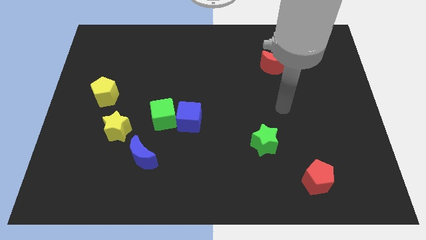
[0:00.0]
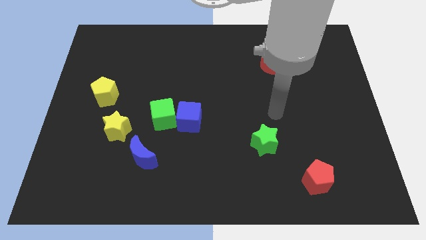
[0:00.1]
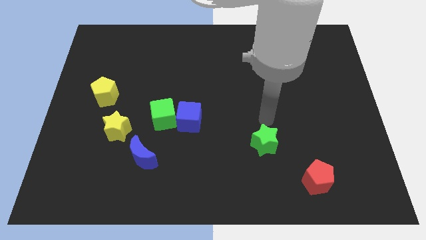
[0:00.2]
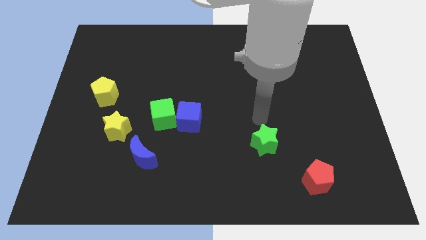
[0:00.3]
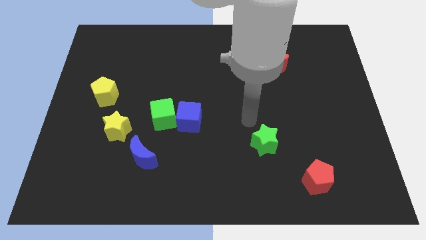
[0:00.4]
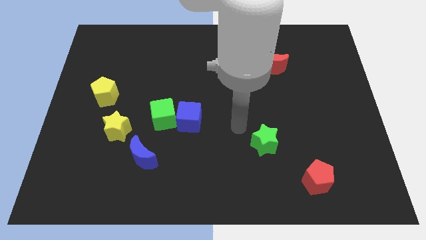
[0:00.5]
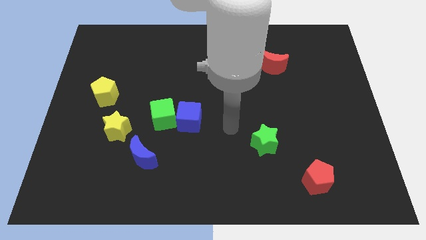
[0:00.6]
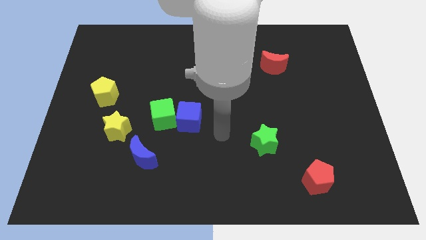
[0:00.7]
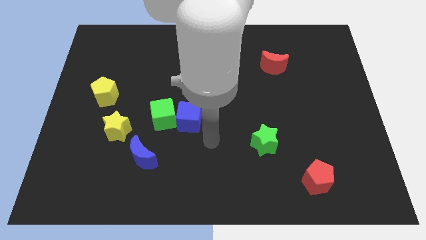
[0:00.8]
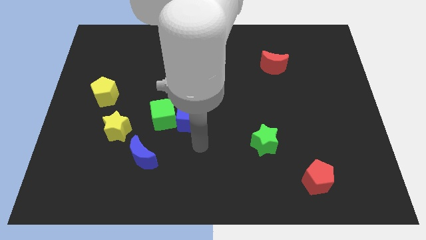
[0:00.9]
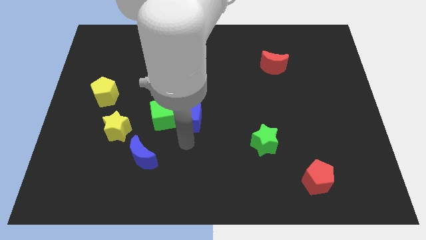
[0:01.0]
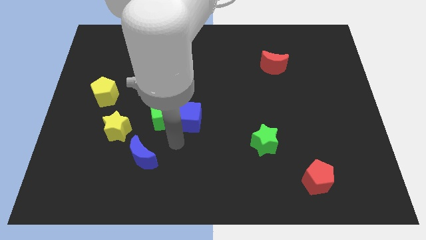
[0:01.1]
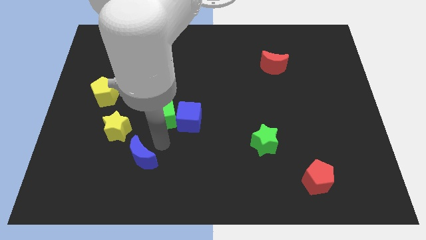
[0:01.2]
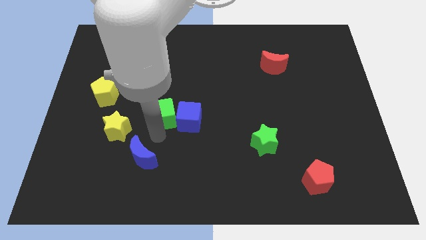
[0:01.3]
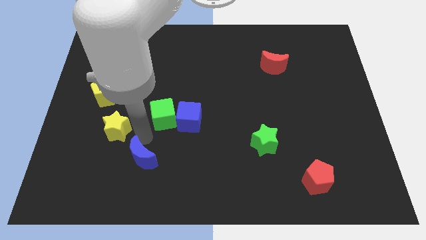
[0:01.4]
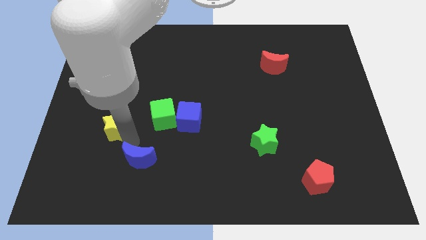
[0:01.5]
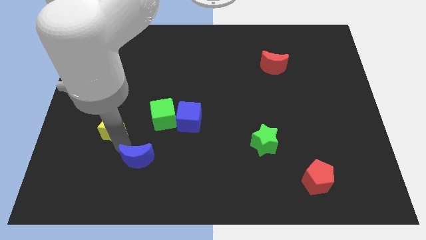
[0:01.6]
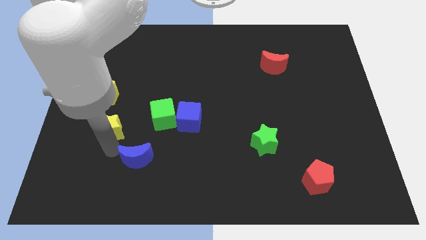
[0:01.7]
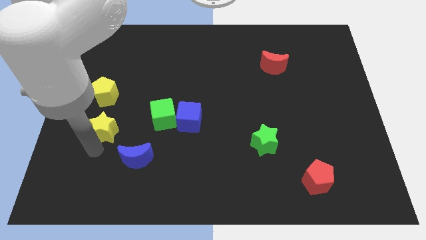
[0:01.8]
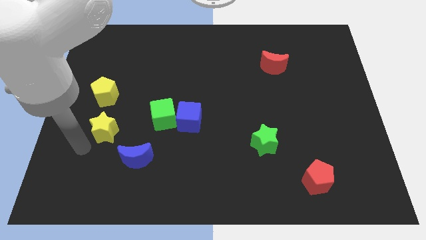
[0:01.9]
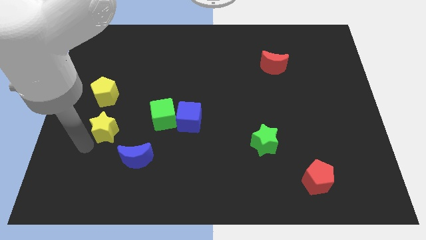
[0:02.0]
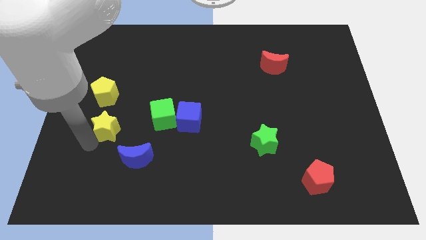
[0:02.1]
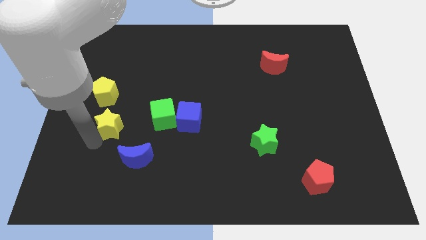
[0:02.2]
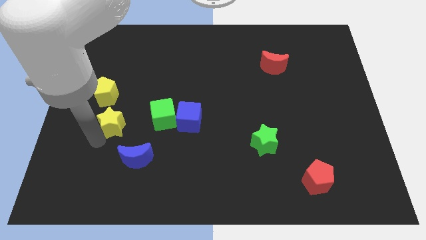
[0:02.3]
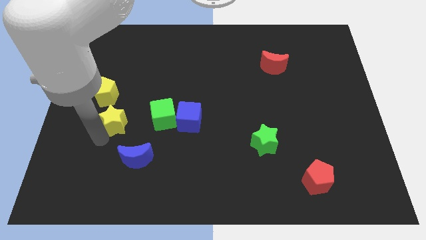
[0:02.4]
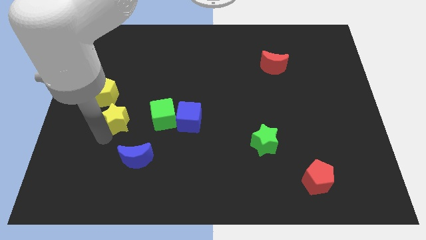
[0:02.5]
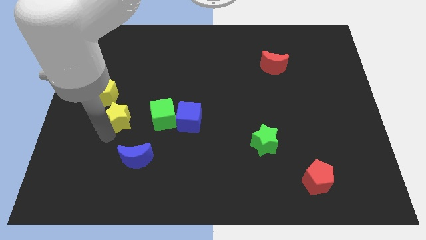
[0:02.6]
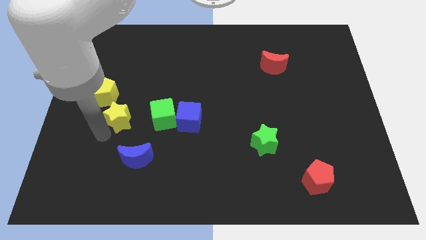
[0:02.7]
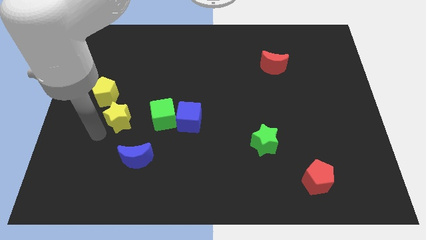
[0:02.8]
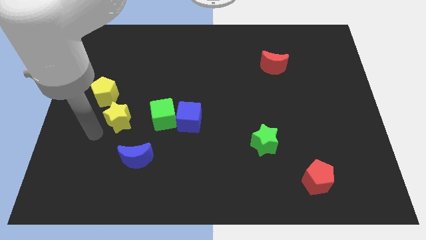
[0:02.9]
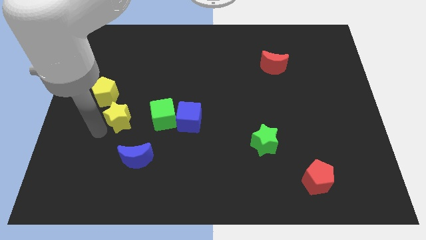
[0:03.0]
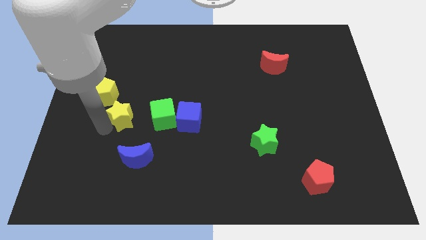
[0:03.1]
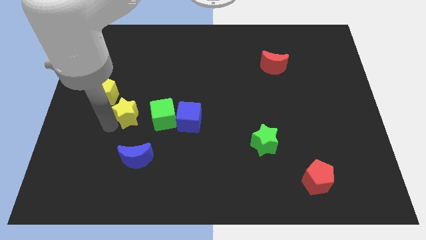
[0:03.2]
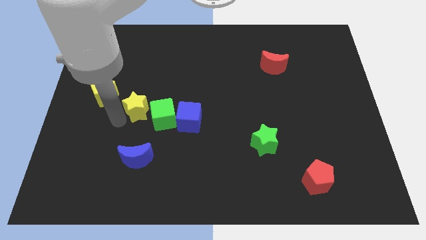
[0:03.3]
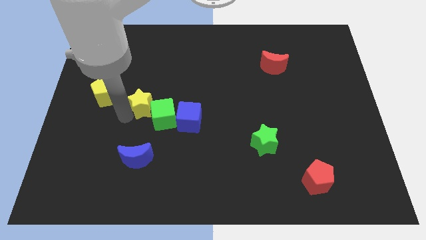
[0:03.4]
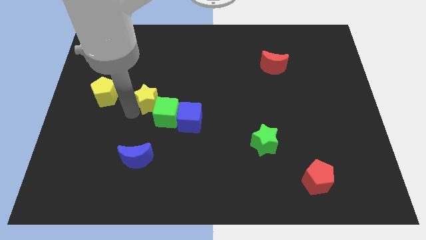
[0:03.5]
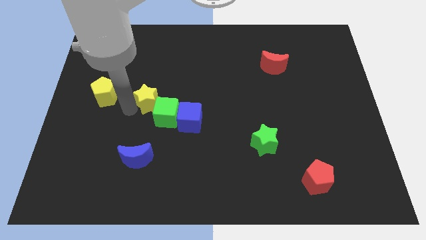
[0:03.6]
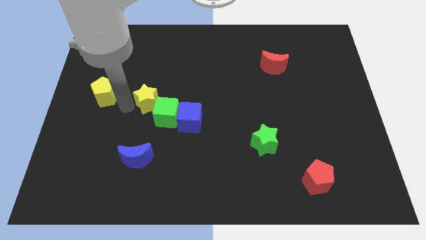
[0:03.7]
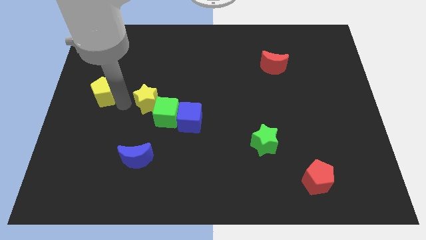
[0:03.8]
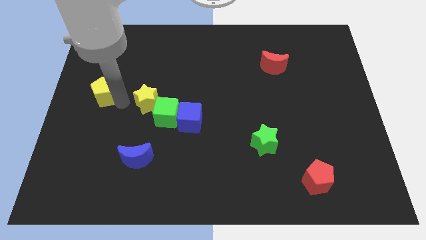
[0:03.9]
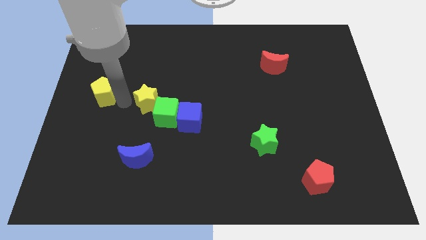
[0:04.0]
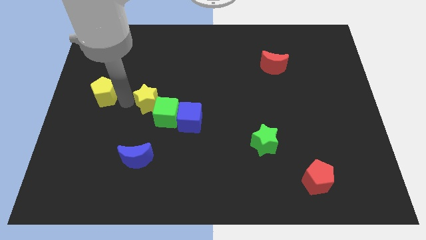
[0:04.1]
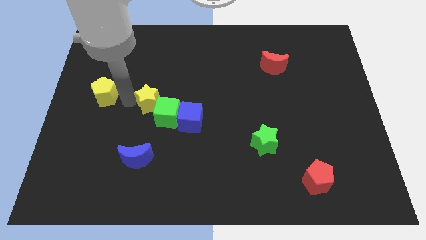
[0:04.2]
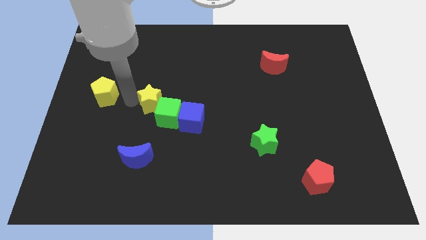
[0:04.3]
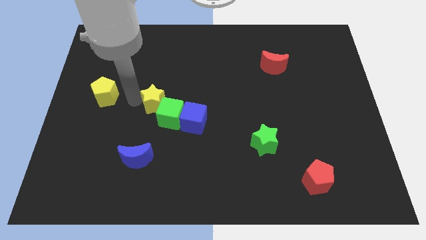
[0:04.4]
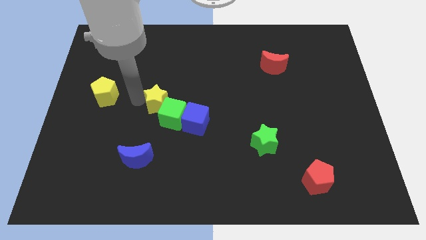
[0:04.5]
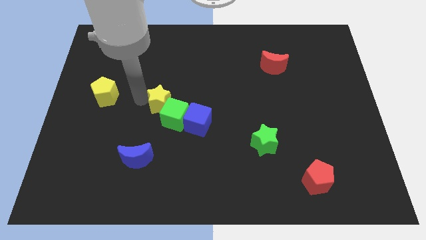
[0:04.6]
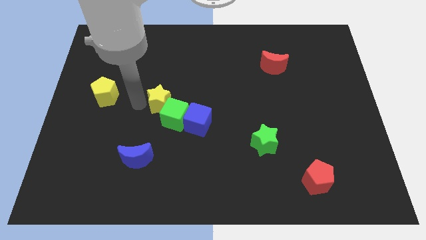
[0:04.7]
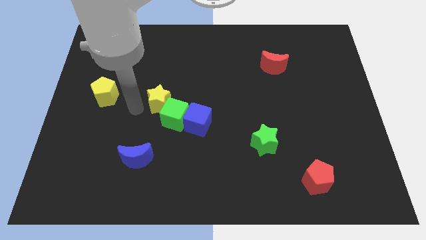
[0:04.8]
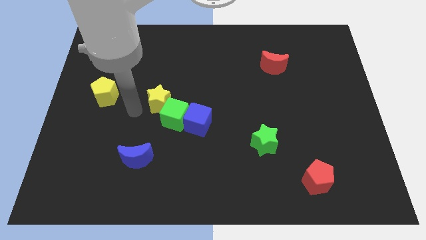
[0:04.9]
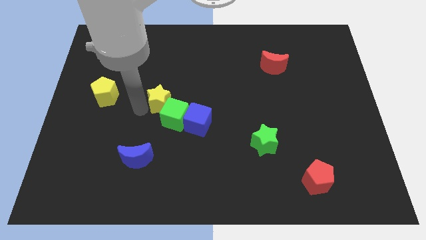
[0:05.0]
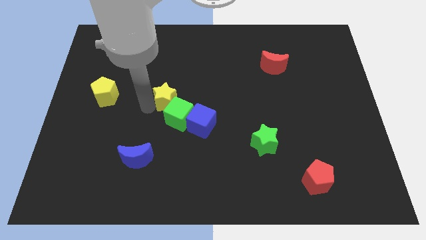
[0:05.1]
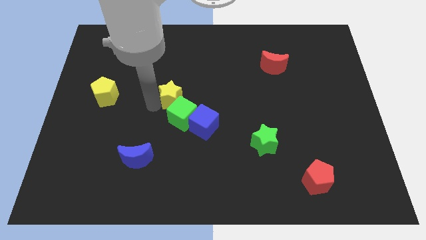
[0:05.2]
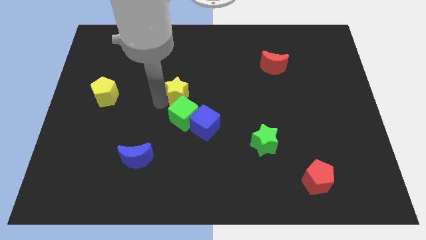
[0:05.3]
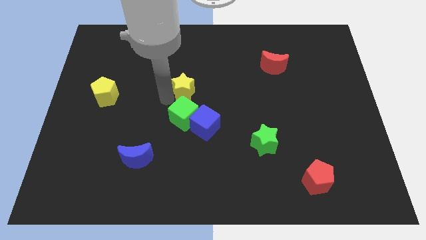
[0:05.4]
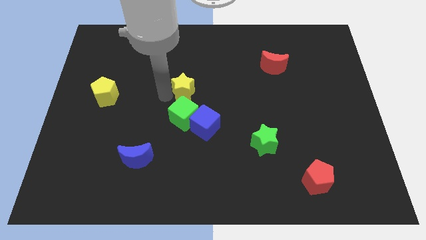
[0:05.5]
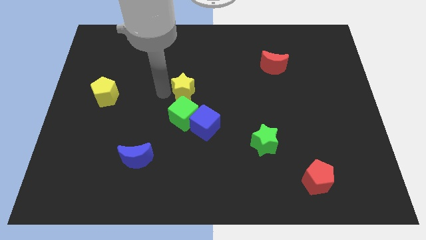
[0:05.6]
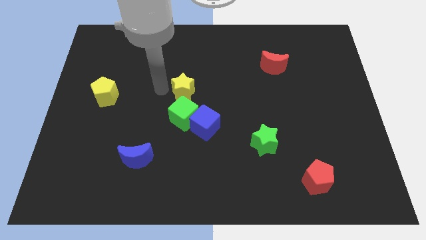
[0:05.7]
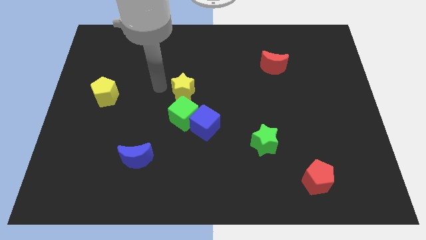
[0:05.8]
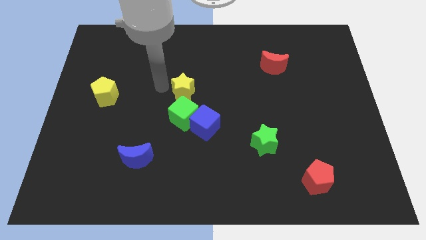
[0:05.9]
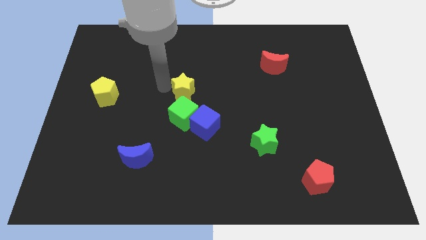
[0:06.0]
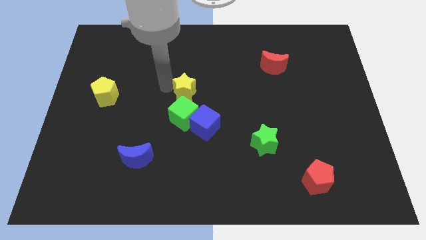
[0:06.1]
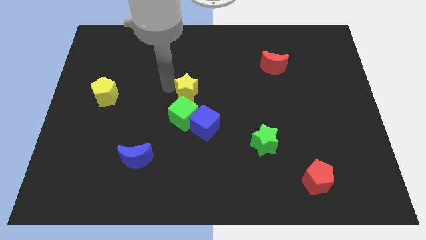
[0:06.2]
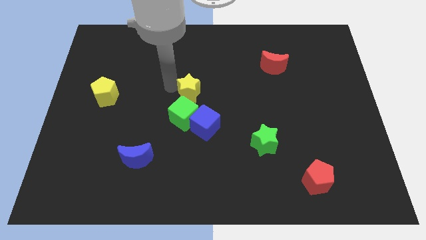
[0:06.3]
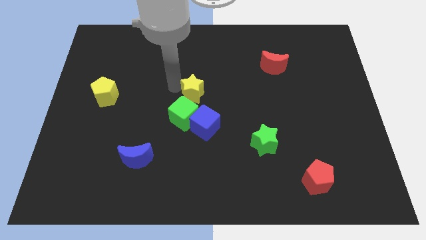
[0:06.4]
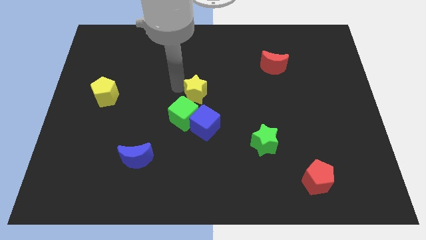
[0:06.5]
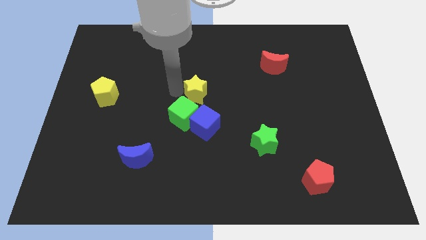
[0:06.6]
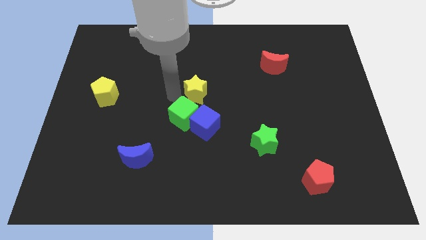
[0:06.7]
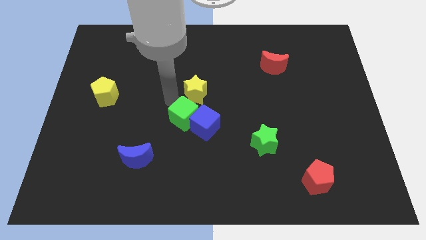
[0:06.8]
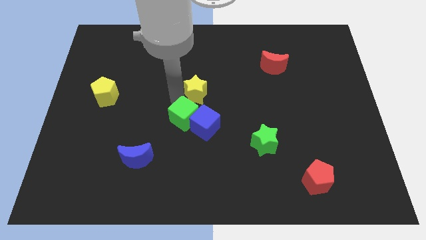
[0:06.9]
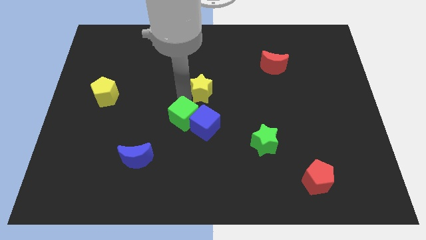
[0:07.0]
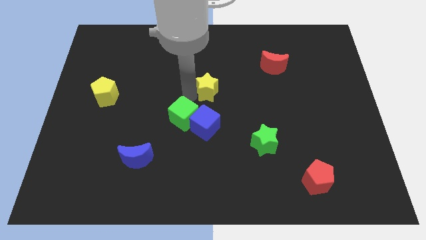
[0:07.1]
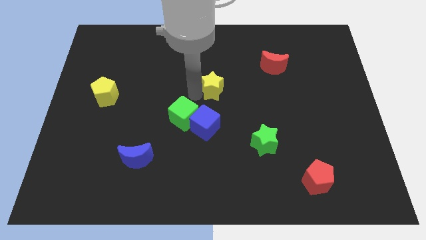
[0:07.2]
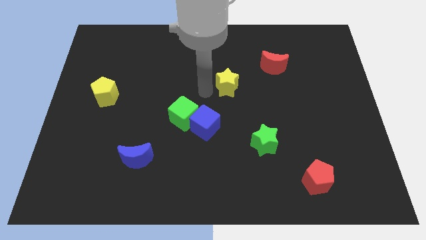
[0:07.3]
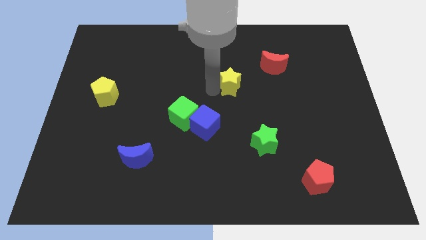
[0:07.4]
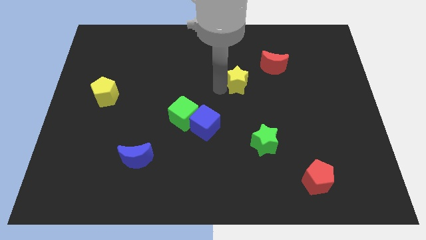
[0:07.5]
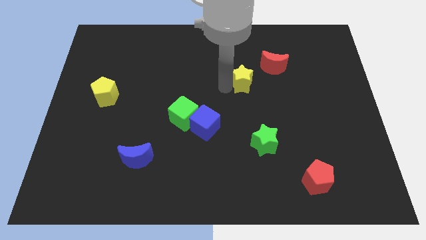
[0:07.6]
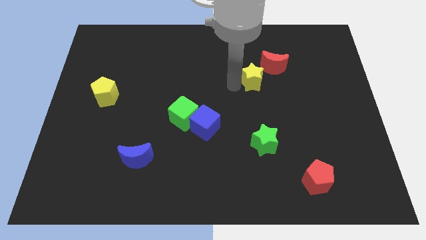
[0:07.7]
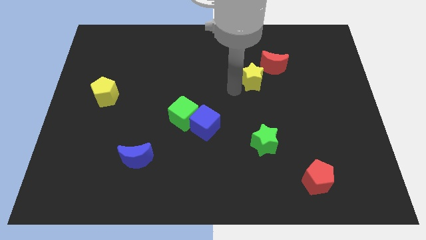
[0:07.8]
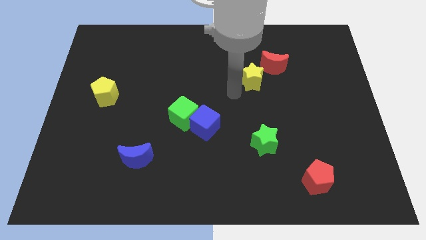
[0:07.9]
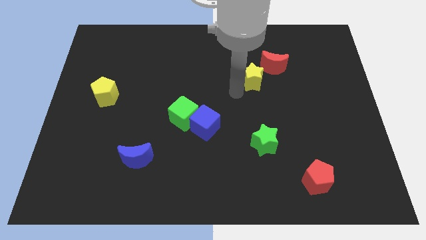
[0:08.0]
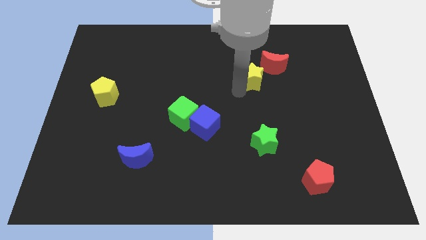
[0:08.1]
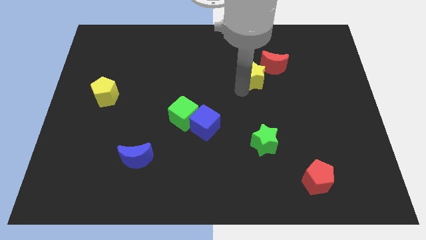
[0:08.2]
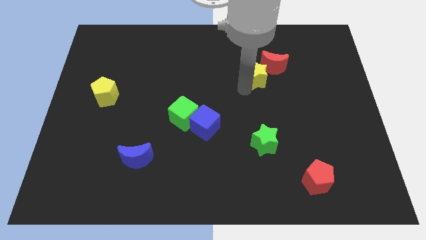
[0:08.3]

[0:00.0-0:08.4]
slide the yellow star next to the red moon
